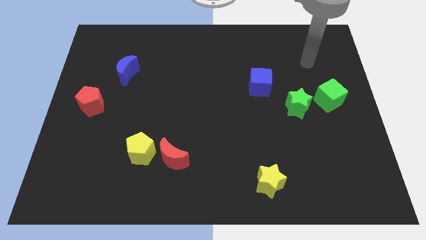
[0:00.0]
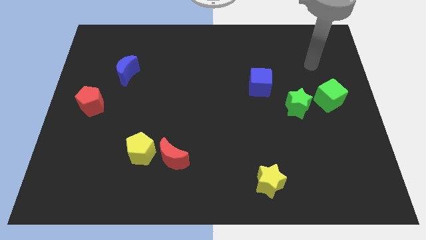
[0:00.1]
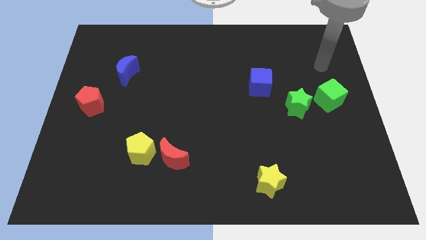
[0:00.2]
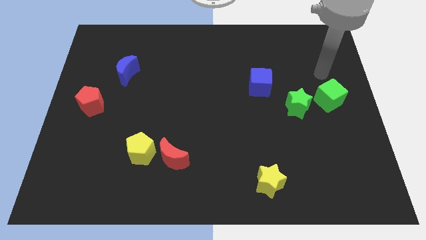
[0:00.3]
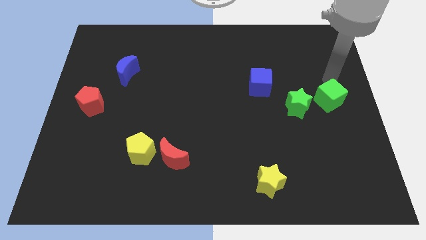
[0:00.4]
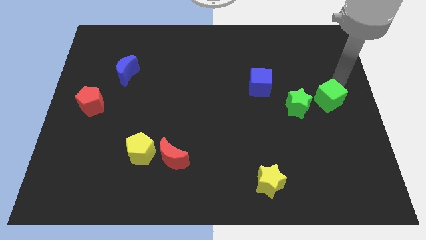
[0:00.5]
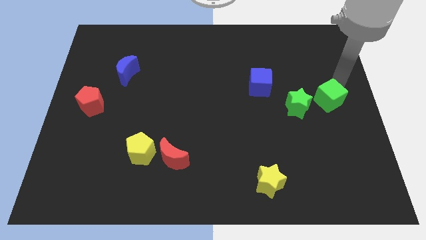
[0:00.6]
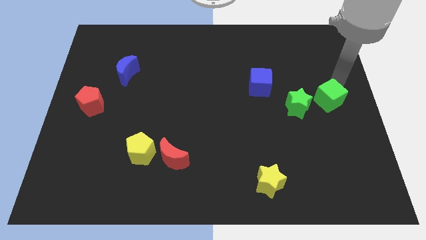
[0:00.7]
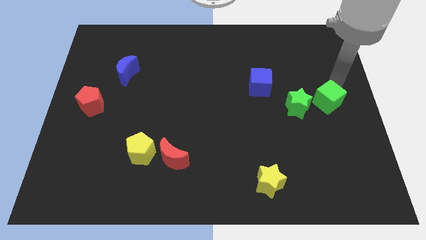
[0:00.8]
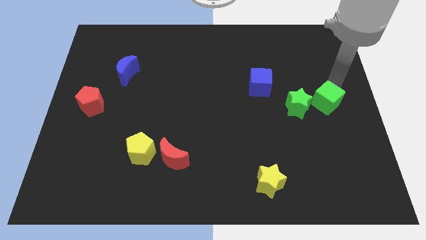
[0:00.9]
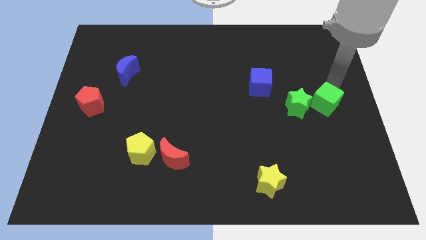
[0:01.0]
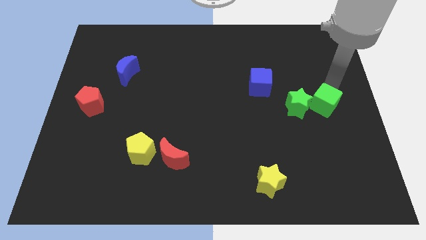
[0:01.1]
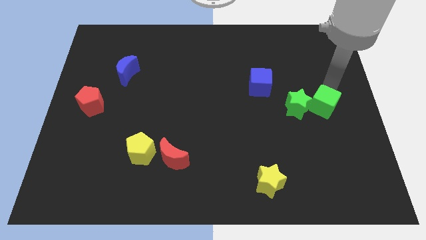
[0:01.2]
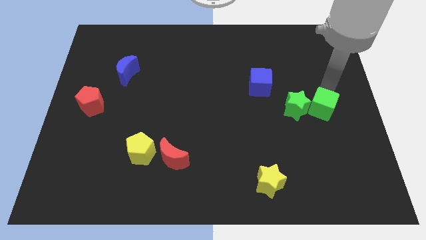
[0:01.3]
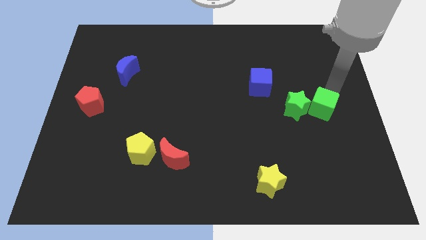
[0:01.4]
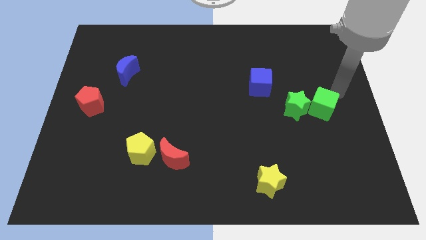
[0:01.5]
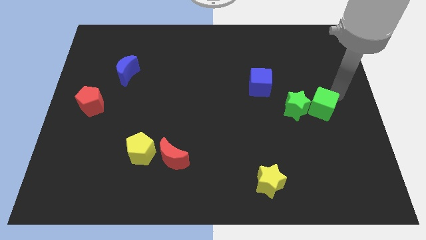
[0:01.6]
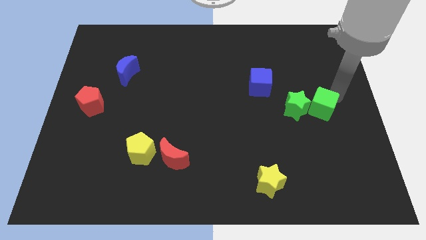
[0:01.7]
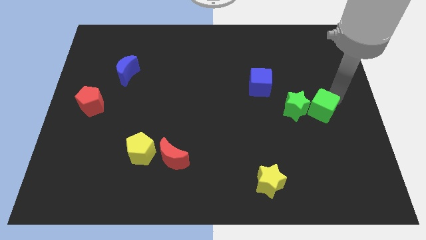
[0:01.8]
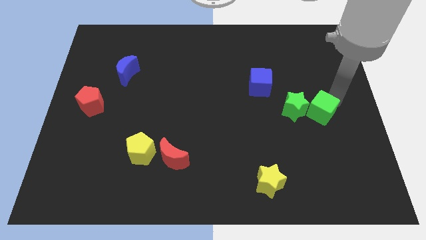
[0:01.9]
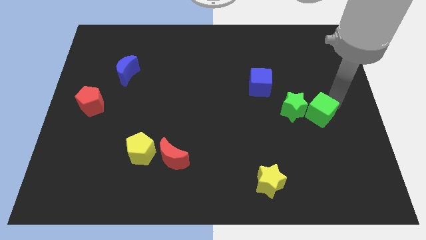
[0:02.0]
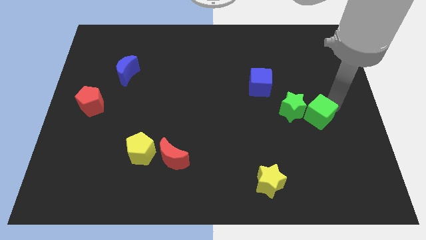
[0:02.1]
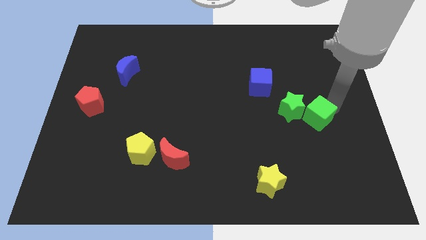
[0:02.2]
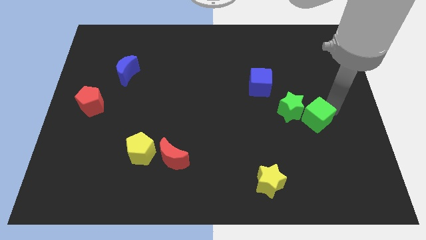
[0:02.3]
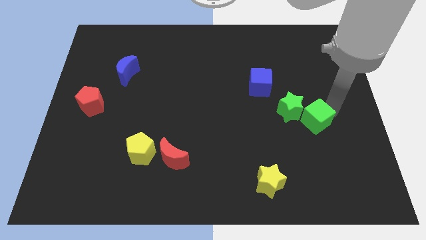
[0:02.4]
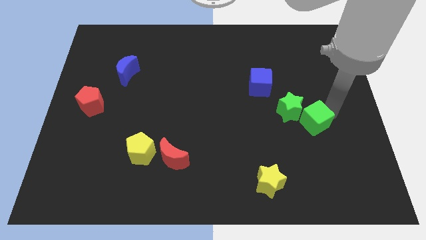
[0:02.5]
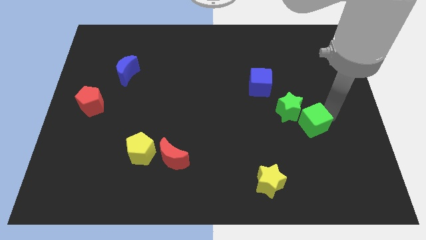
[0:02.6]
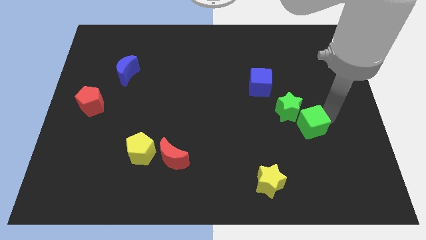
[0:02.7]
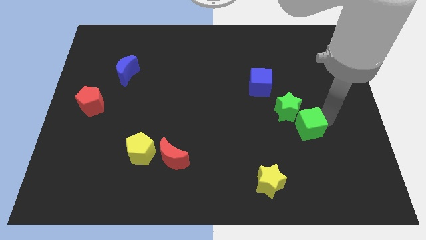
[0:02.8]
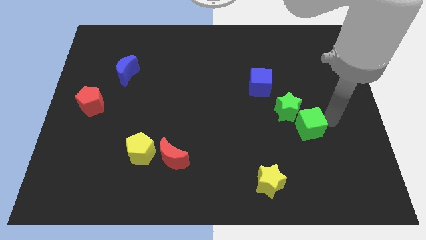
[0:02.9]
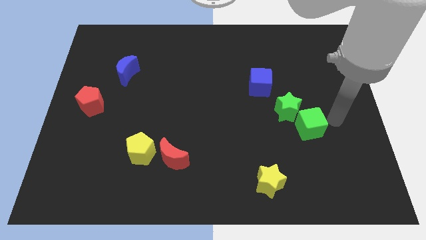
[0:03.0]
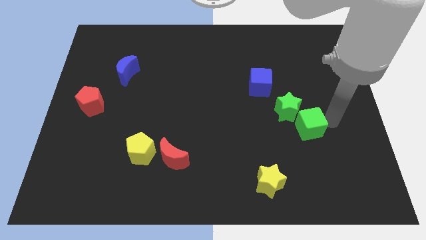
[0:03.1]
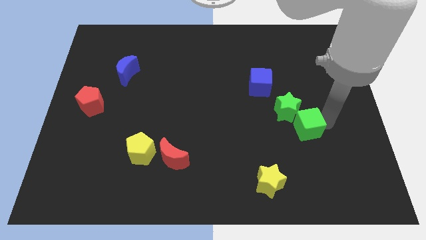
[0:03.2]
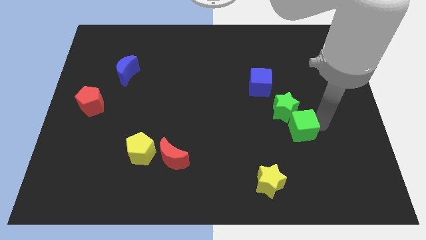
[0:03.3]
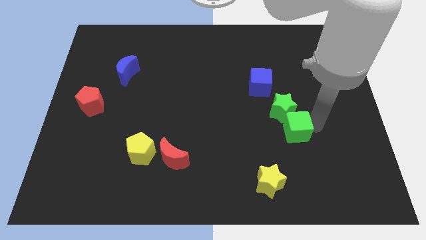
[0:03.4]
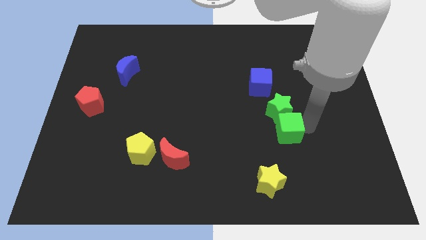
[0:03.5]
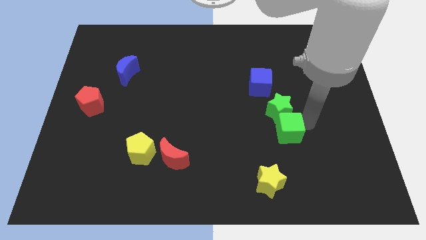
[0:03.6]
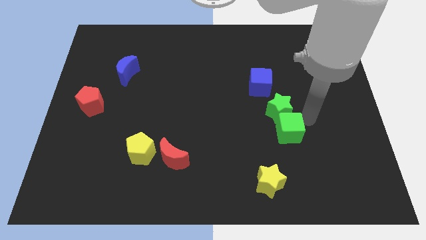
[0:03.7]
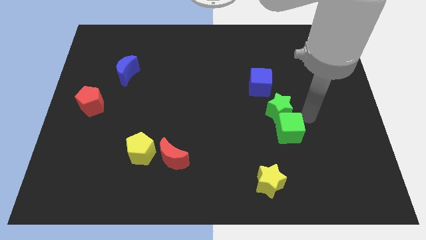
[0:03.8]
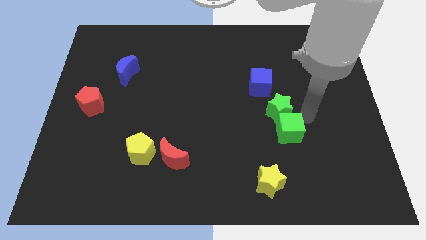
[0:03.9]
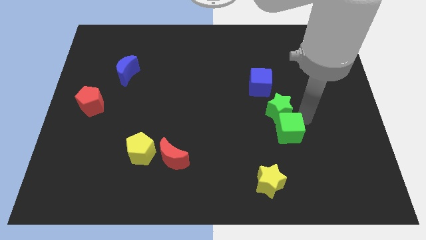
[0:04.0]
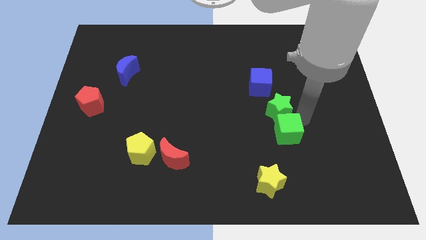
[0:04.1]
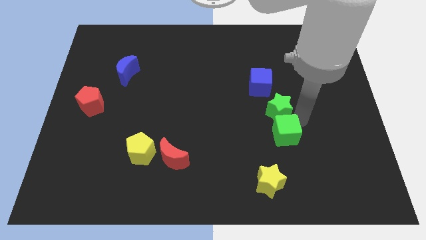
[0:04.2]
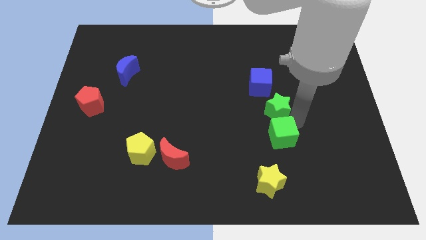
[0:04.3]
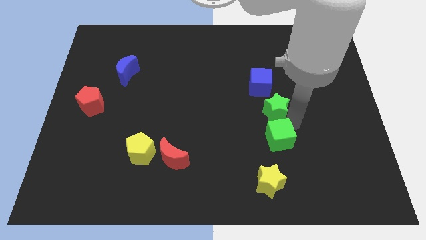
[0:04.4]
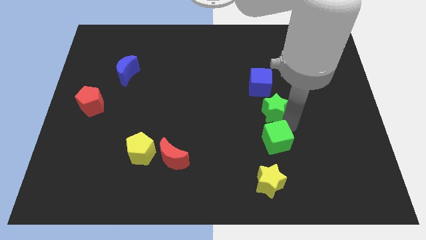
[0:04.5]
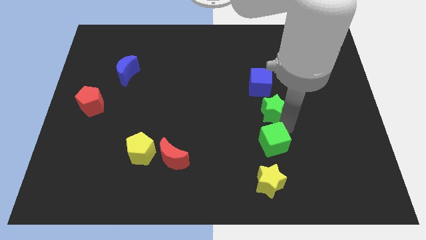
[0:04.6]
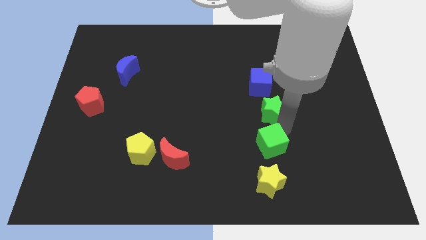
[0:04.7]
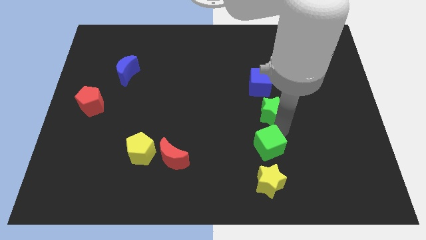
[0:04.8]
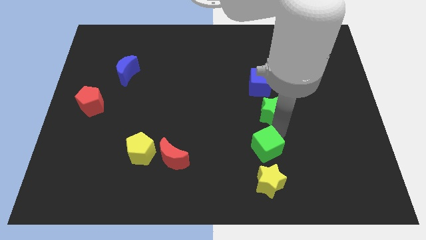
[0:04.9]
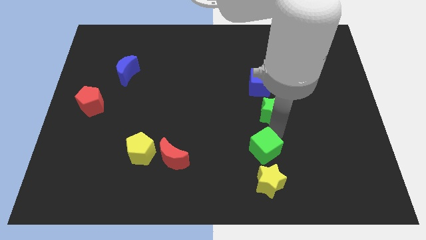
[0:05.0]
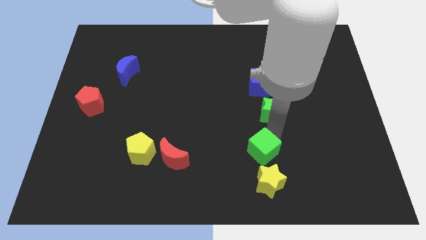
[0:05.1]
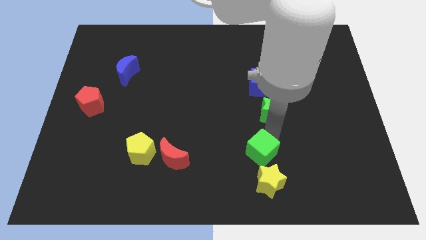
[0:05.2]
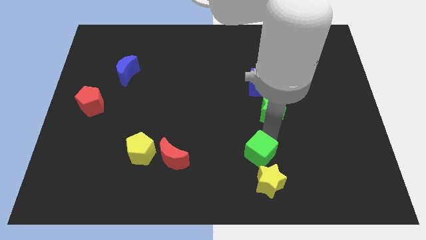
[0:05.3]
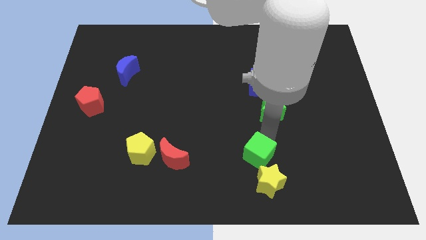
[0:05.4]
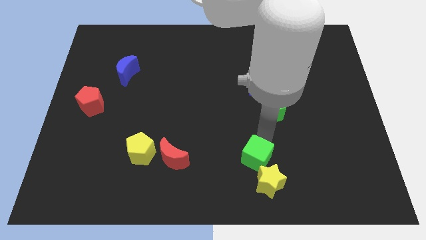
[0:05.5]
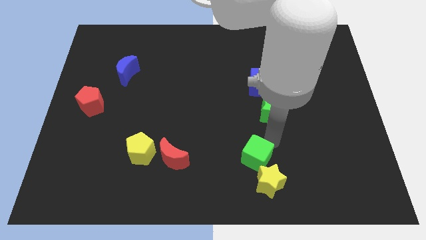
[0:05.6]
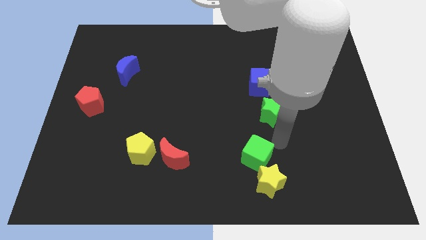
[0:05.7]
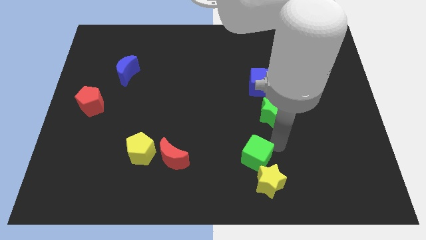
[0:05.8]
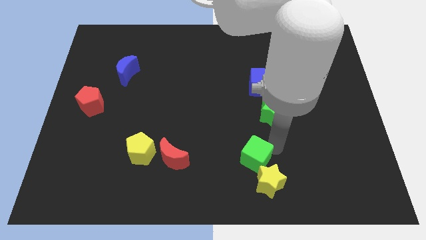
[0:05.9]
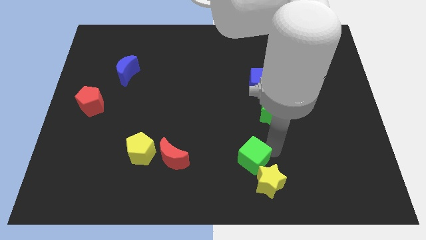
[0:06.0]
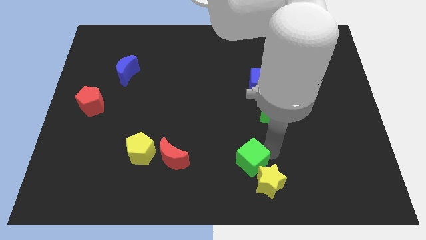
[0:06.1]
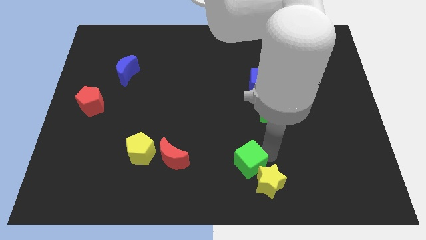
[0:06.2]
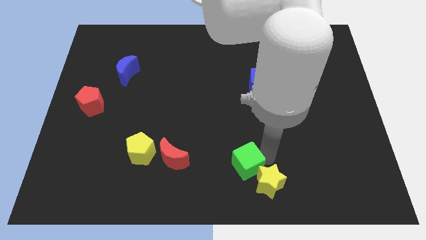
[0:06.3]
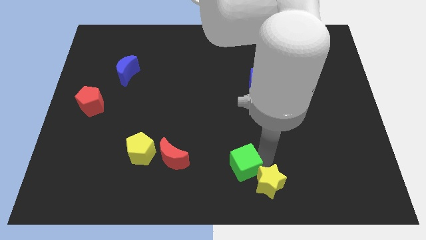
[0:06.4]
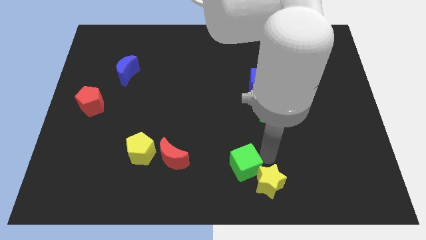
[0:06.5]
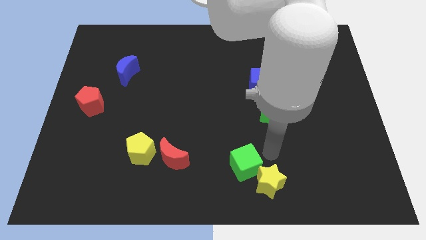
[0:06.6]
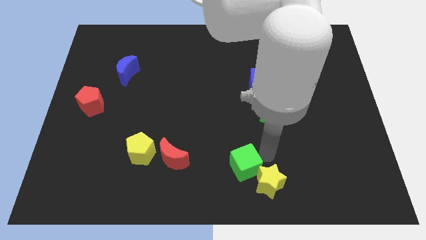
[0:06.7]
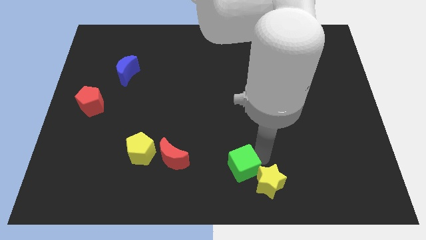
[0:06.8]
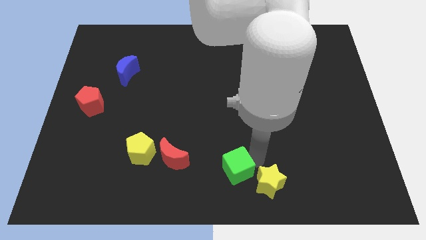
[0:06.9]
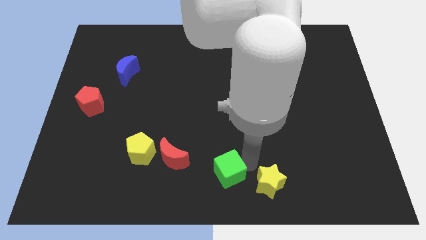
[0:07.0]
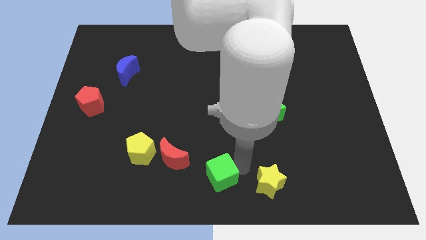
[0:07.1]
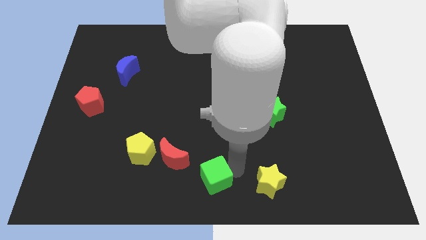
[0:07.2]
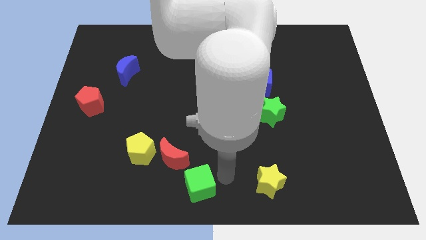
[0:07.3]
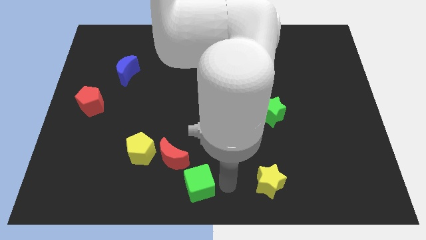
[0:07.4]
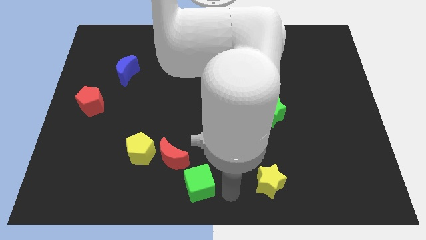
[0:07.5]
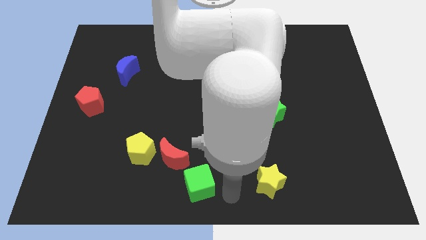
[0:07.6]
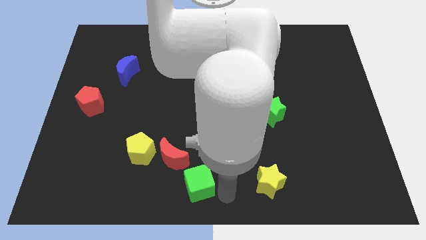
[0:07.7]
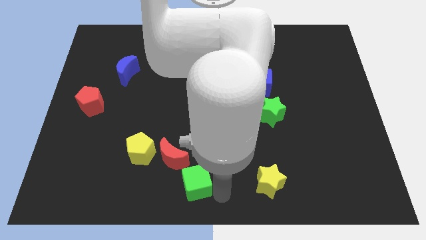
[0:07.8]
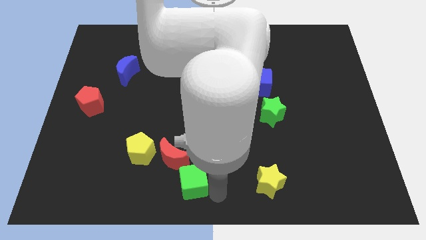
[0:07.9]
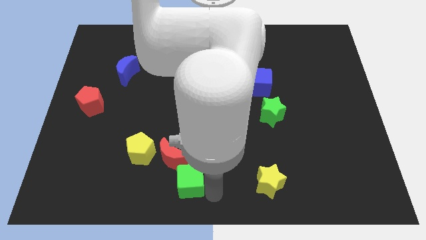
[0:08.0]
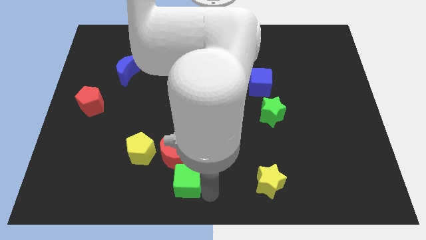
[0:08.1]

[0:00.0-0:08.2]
push the green cube diagonally down and to the right of the yellow pentagon
